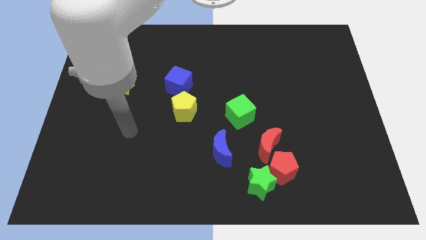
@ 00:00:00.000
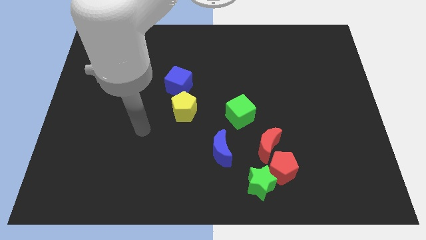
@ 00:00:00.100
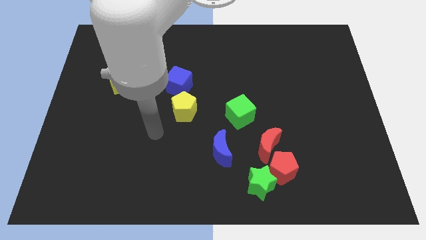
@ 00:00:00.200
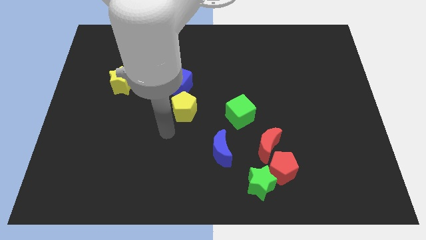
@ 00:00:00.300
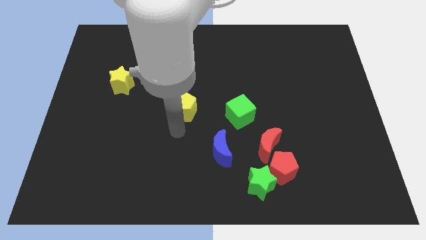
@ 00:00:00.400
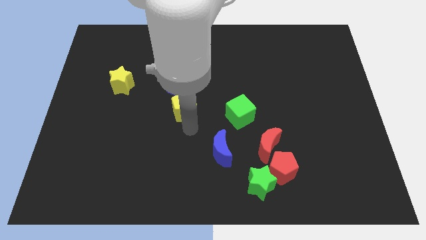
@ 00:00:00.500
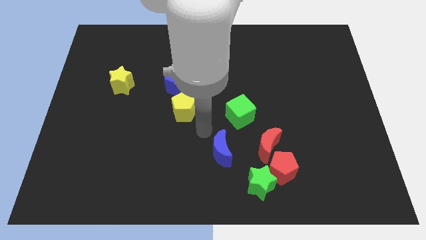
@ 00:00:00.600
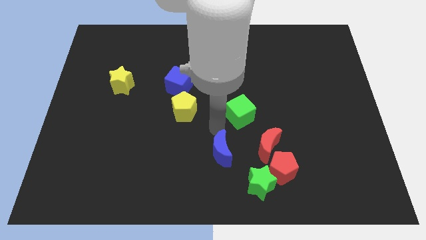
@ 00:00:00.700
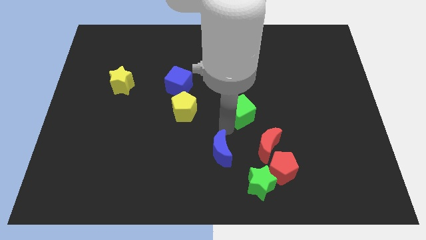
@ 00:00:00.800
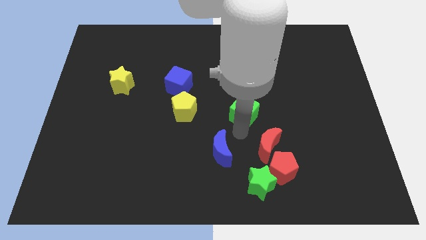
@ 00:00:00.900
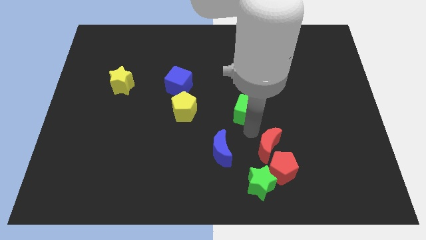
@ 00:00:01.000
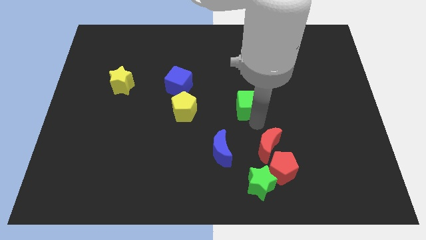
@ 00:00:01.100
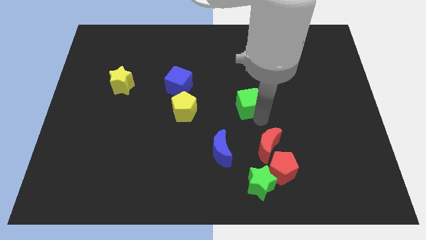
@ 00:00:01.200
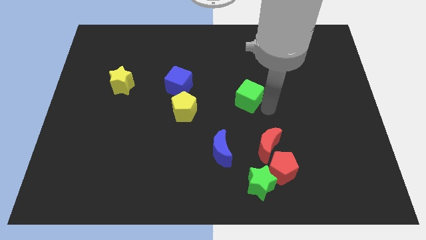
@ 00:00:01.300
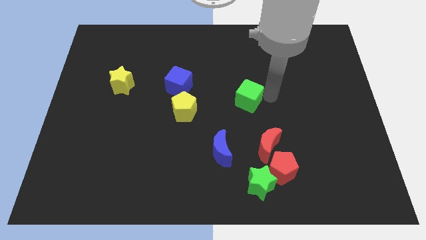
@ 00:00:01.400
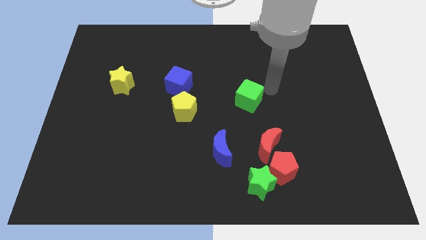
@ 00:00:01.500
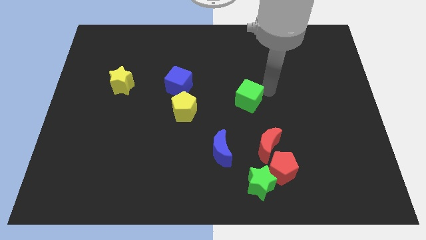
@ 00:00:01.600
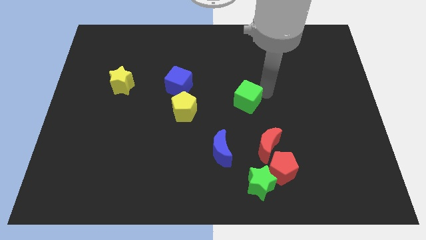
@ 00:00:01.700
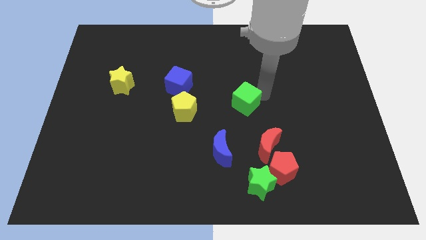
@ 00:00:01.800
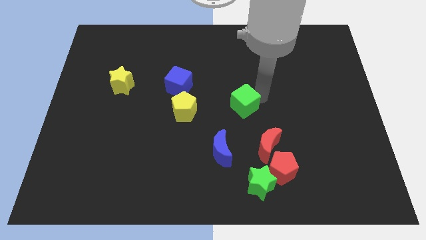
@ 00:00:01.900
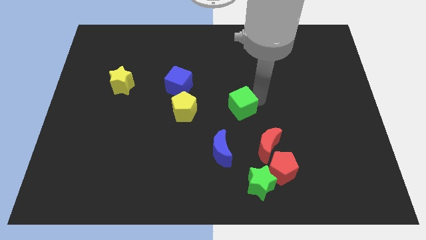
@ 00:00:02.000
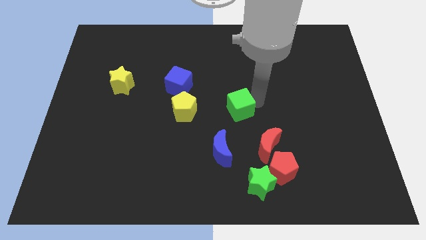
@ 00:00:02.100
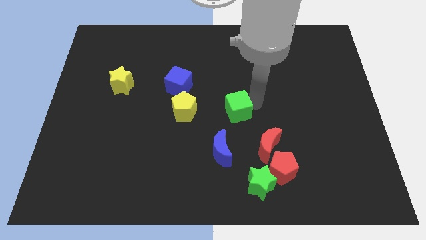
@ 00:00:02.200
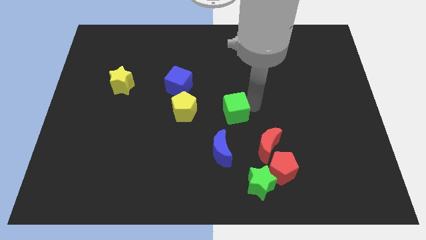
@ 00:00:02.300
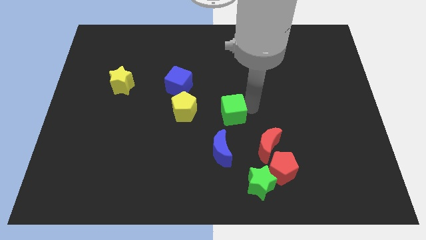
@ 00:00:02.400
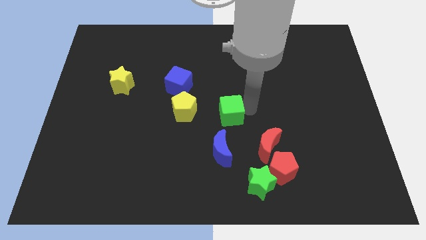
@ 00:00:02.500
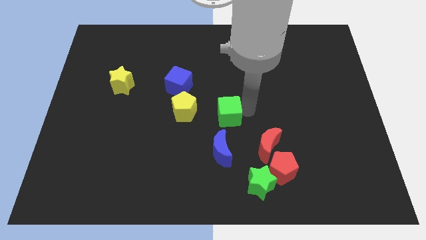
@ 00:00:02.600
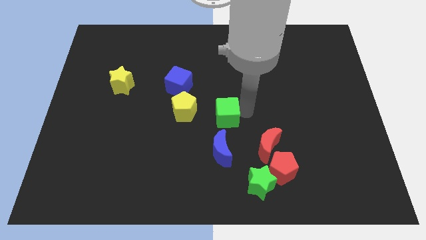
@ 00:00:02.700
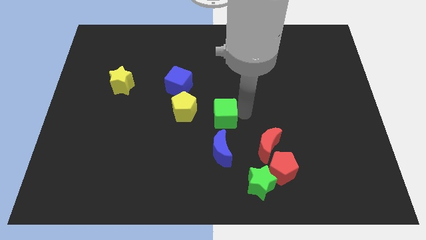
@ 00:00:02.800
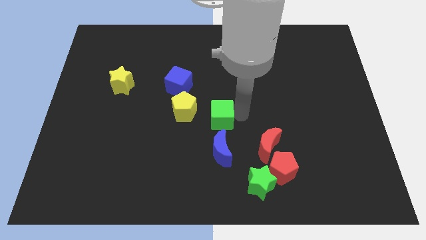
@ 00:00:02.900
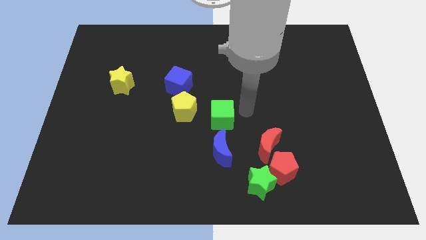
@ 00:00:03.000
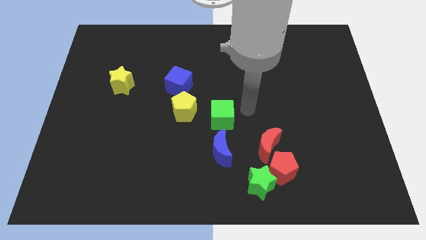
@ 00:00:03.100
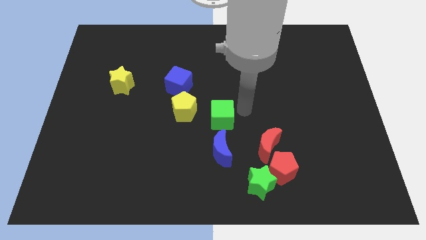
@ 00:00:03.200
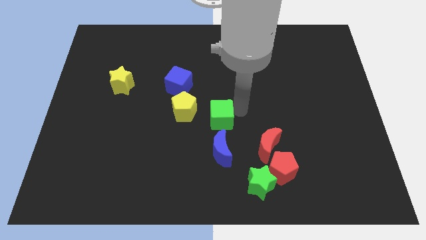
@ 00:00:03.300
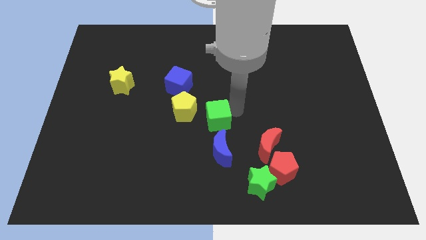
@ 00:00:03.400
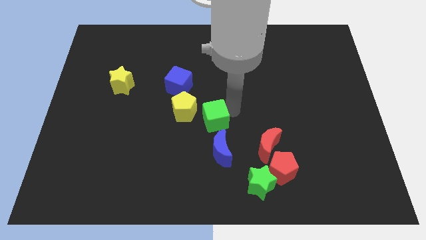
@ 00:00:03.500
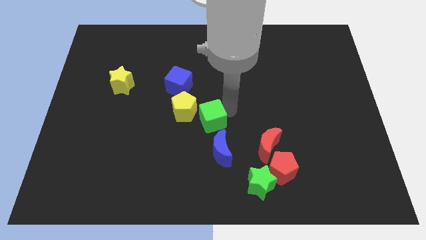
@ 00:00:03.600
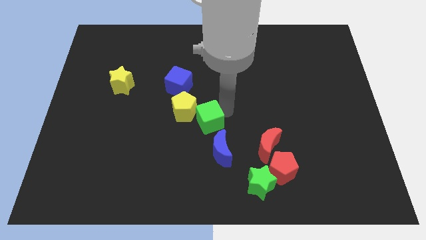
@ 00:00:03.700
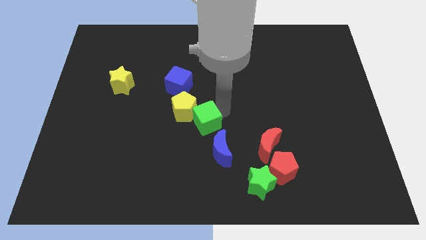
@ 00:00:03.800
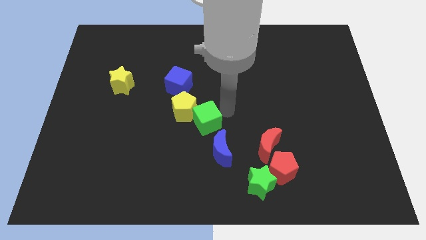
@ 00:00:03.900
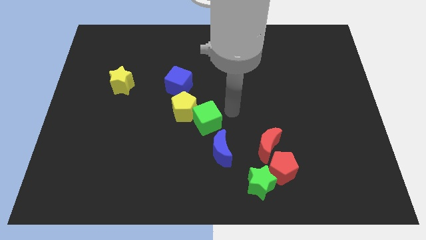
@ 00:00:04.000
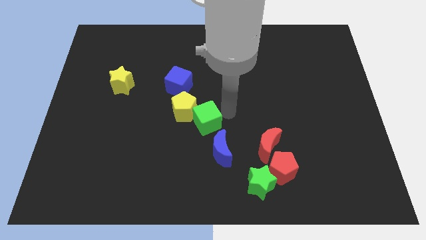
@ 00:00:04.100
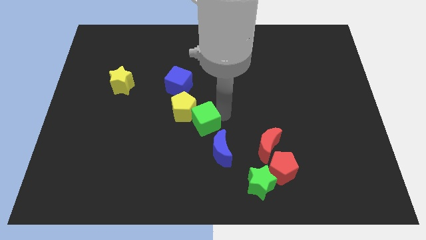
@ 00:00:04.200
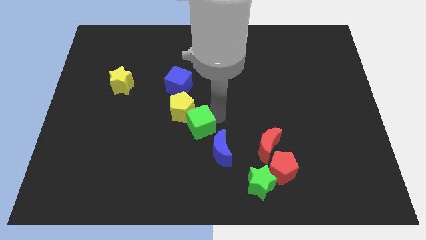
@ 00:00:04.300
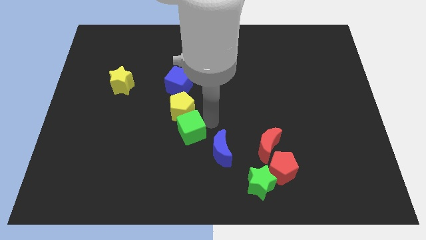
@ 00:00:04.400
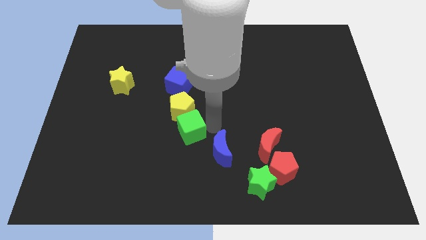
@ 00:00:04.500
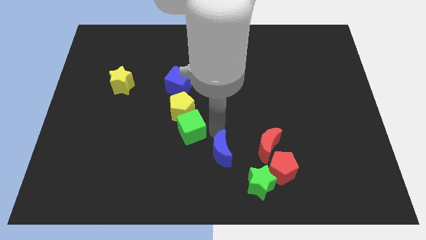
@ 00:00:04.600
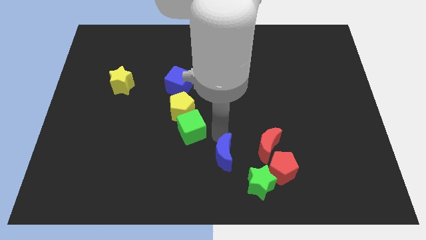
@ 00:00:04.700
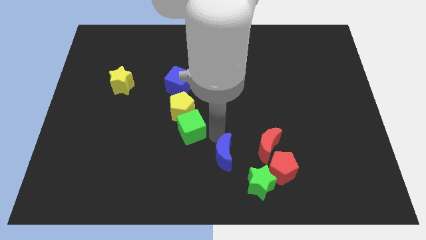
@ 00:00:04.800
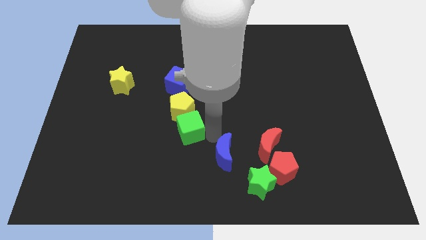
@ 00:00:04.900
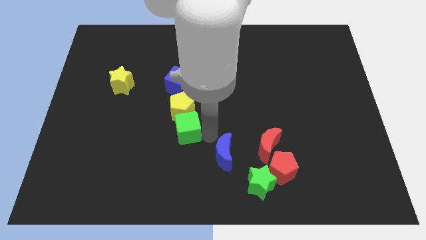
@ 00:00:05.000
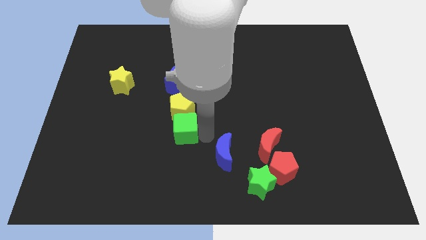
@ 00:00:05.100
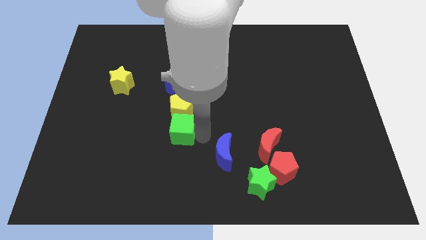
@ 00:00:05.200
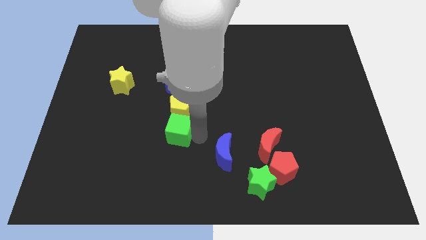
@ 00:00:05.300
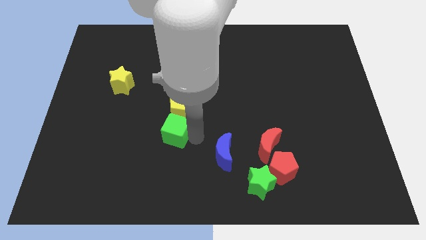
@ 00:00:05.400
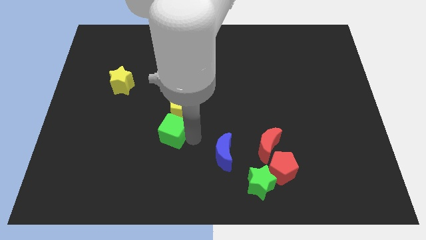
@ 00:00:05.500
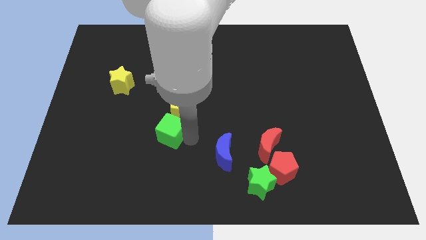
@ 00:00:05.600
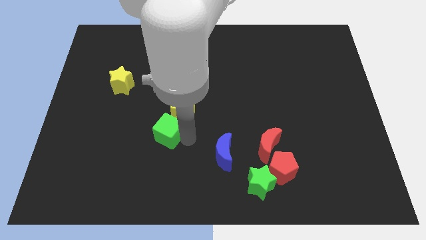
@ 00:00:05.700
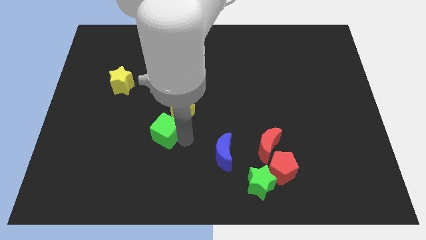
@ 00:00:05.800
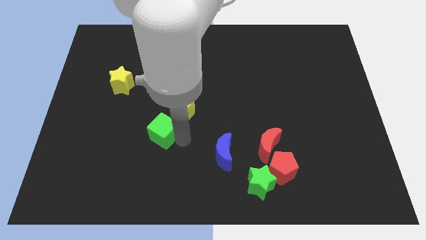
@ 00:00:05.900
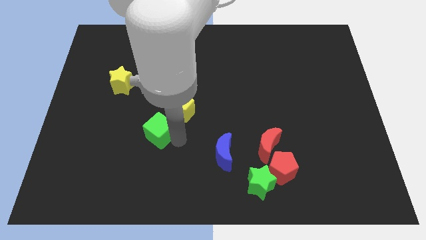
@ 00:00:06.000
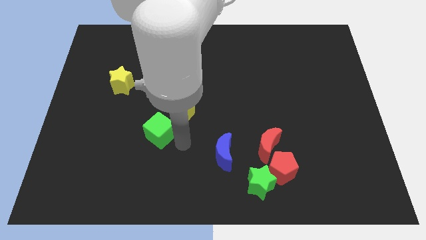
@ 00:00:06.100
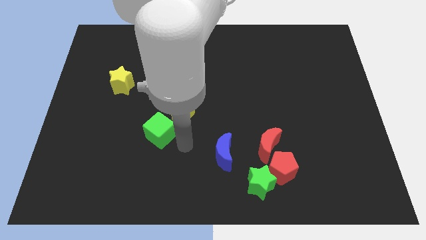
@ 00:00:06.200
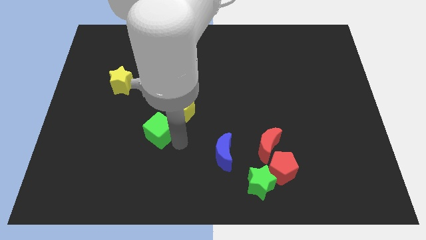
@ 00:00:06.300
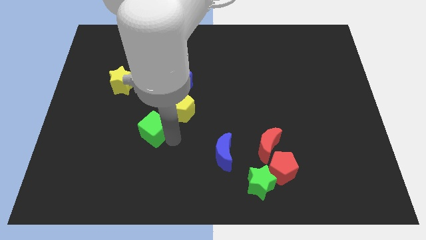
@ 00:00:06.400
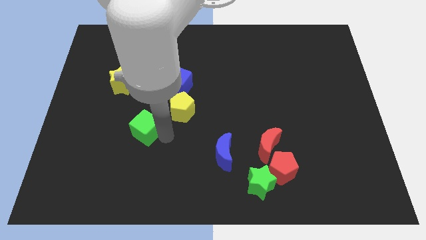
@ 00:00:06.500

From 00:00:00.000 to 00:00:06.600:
slide the green cube to the left

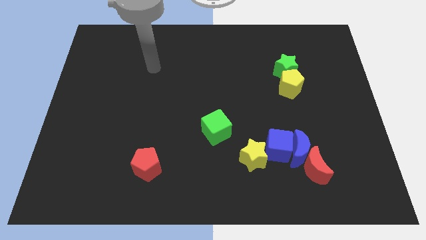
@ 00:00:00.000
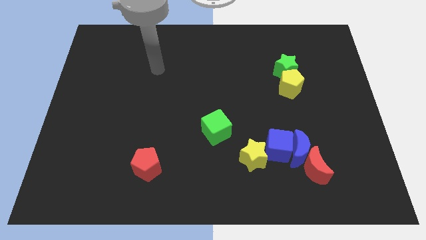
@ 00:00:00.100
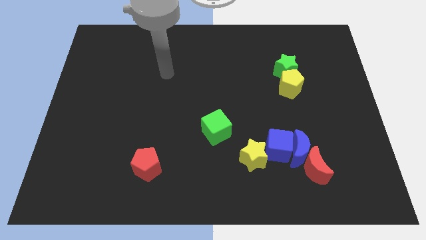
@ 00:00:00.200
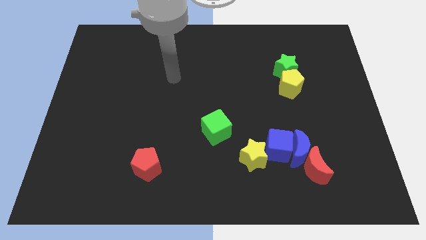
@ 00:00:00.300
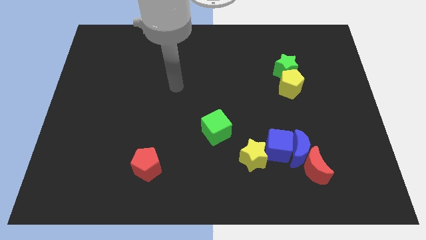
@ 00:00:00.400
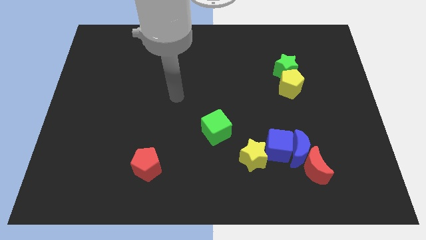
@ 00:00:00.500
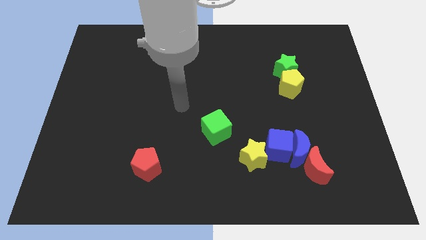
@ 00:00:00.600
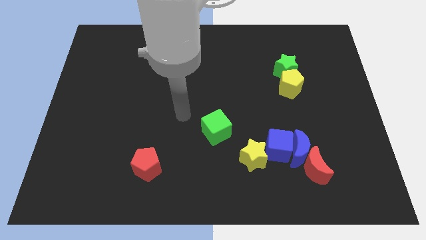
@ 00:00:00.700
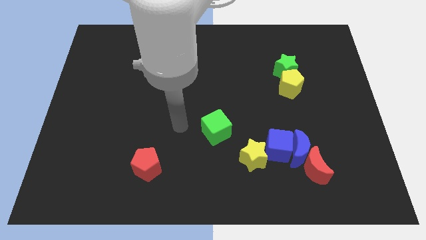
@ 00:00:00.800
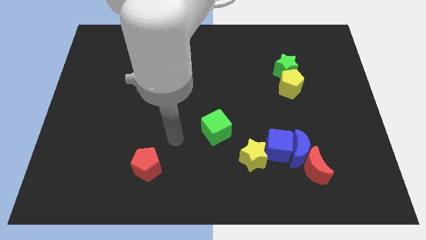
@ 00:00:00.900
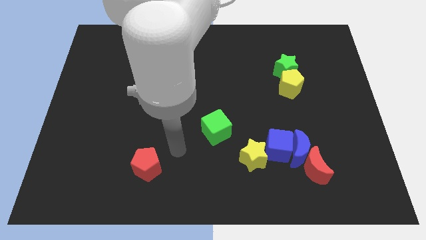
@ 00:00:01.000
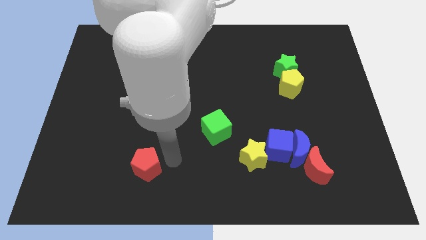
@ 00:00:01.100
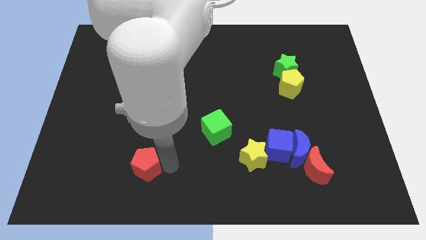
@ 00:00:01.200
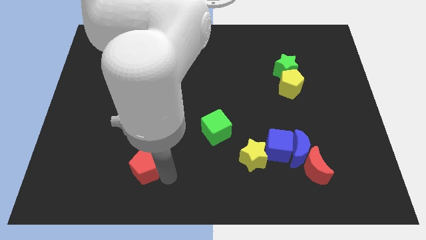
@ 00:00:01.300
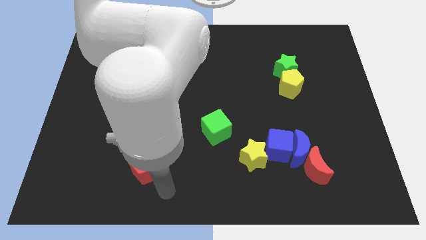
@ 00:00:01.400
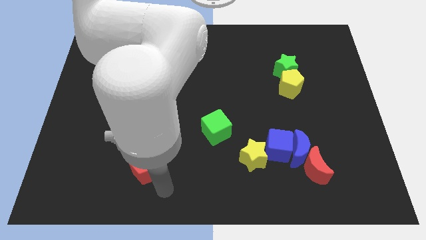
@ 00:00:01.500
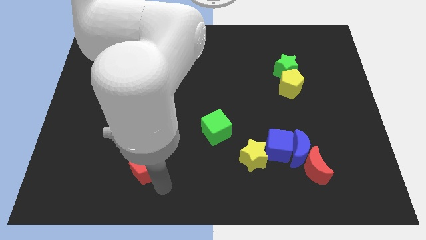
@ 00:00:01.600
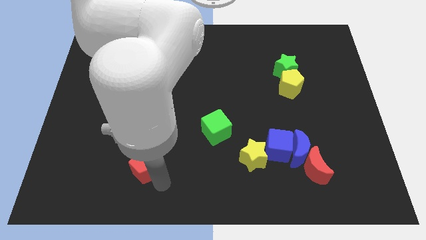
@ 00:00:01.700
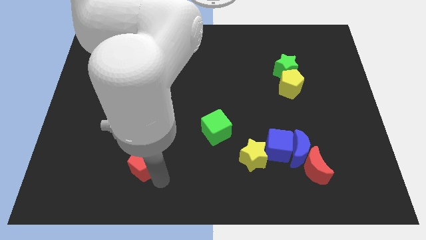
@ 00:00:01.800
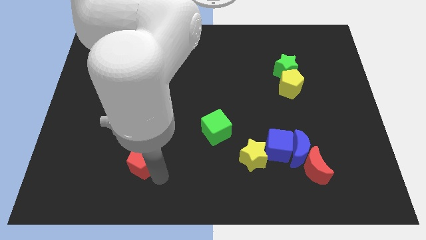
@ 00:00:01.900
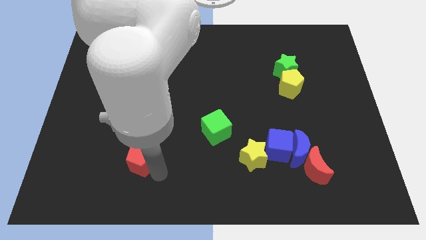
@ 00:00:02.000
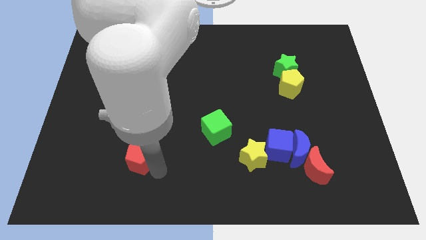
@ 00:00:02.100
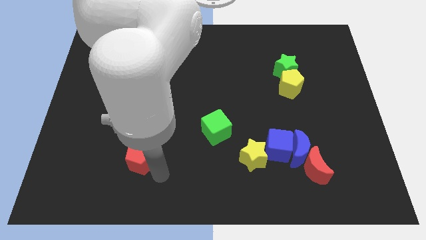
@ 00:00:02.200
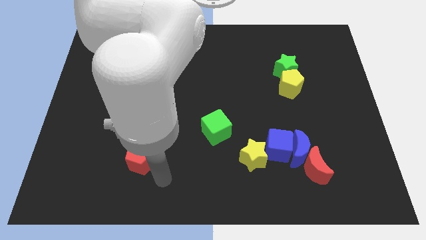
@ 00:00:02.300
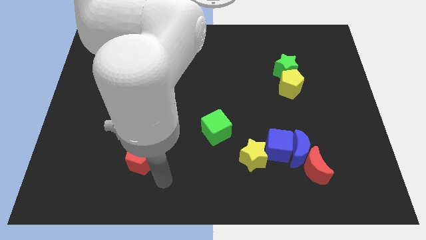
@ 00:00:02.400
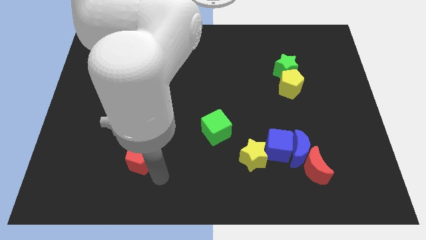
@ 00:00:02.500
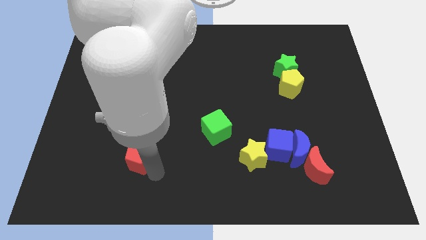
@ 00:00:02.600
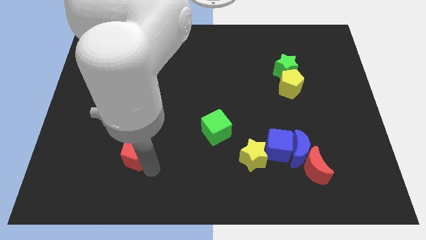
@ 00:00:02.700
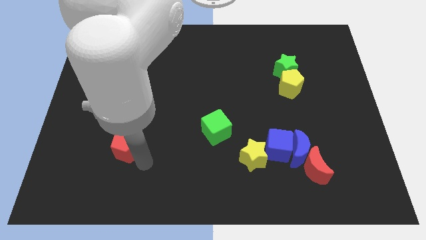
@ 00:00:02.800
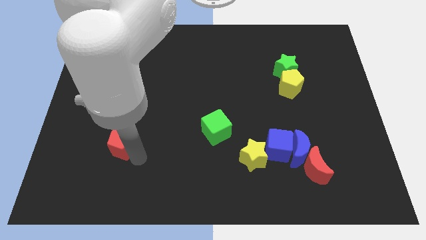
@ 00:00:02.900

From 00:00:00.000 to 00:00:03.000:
slide the red pentagon a little bit diagonally upwards and to the left
